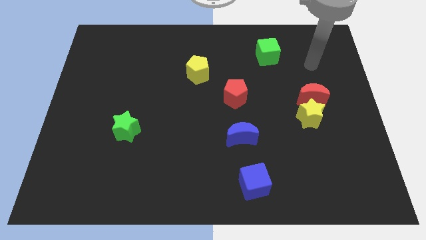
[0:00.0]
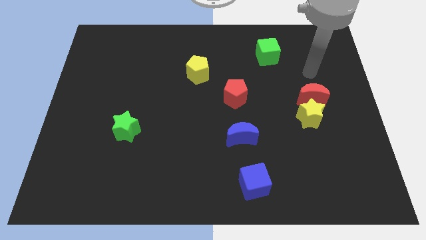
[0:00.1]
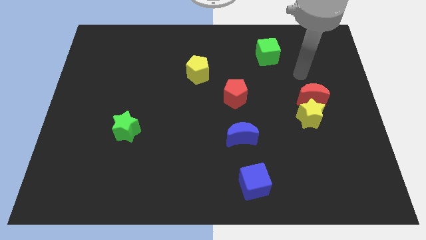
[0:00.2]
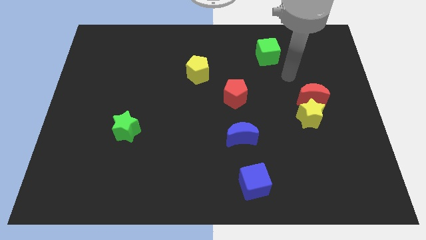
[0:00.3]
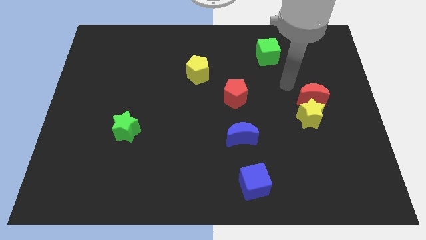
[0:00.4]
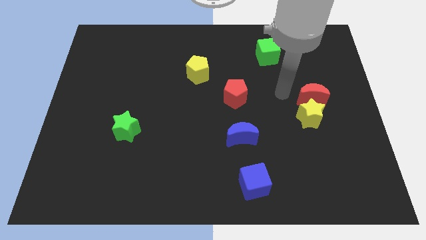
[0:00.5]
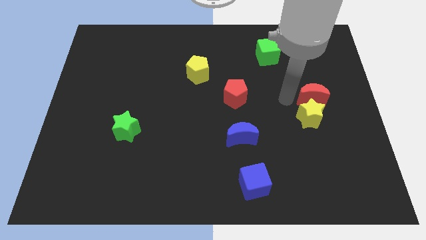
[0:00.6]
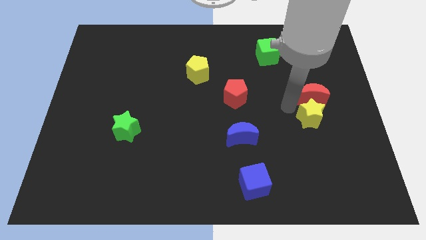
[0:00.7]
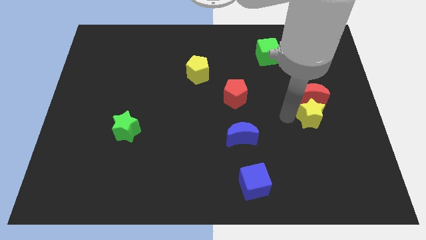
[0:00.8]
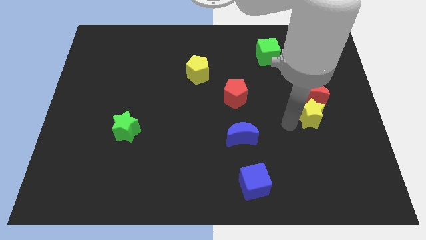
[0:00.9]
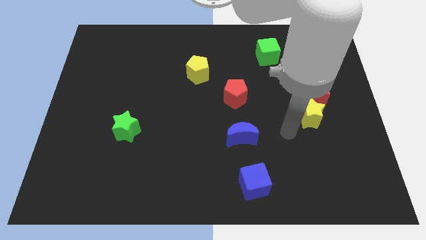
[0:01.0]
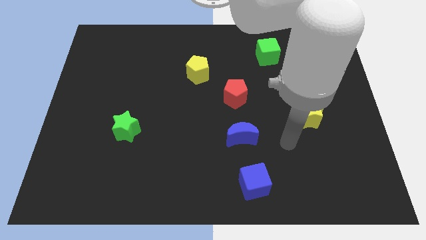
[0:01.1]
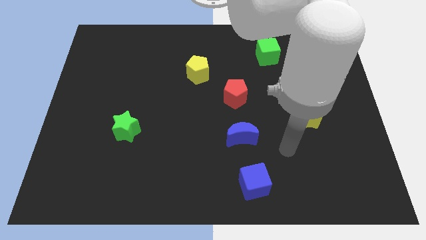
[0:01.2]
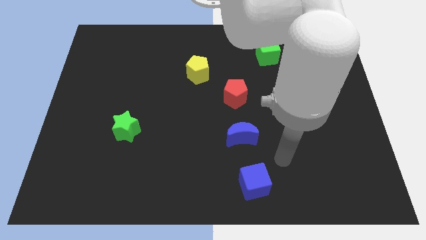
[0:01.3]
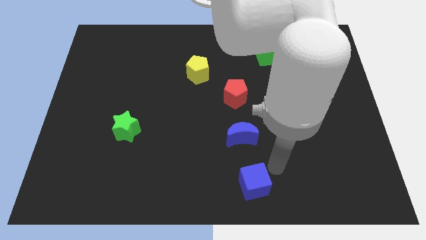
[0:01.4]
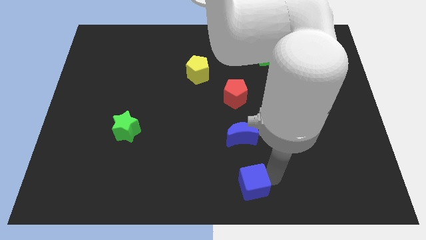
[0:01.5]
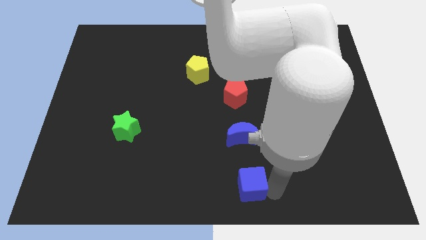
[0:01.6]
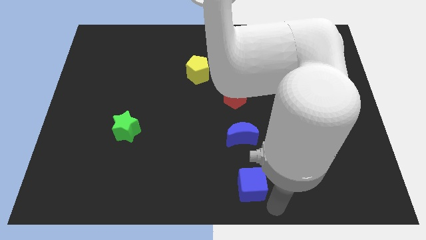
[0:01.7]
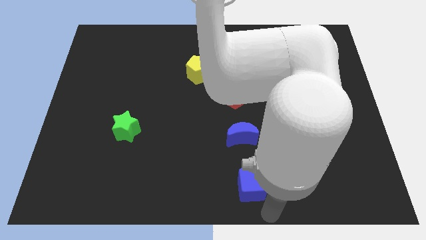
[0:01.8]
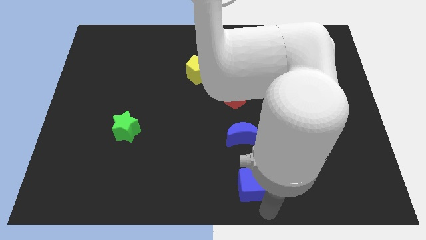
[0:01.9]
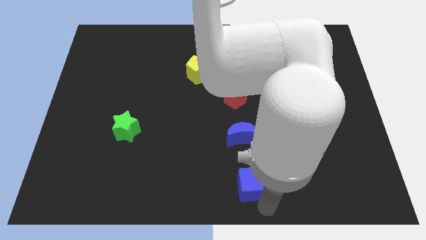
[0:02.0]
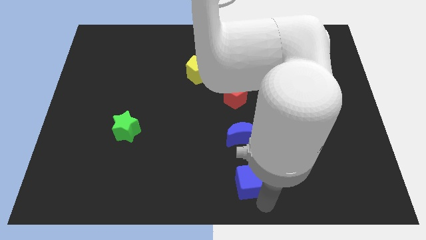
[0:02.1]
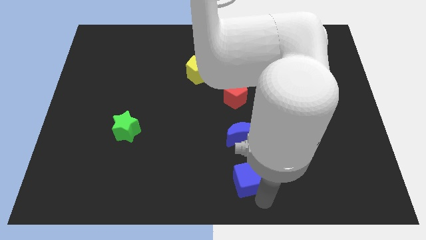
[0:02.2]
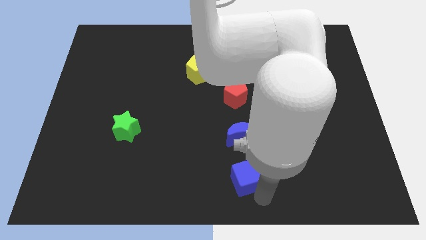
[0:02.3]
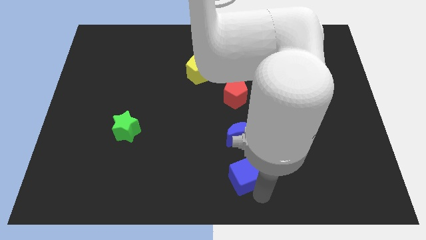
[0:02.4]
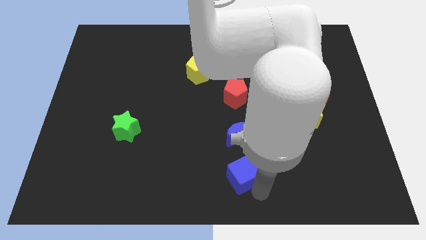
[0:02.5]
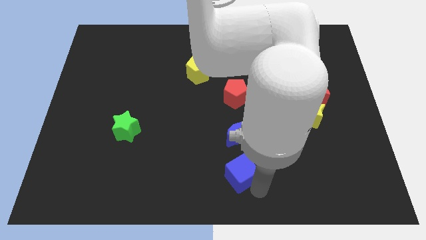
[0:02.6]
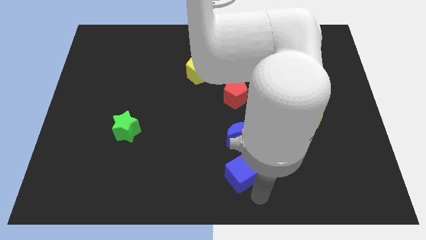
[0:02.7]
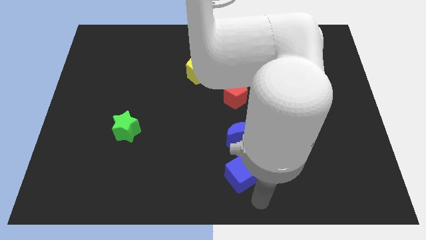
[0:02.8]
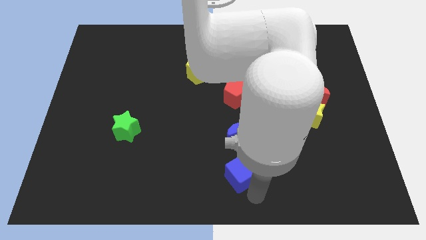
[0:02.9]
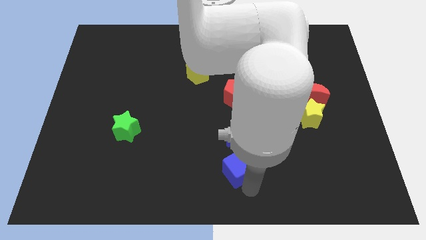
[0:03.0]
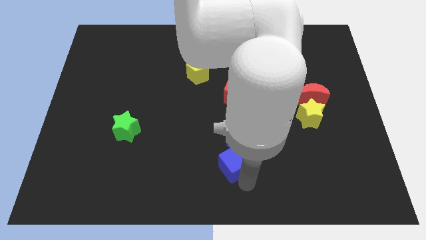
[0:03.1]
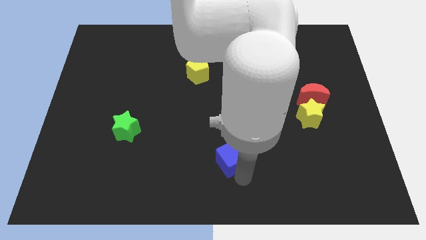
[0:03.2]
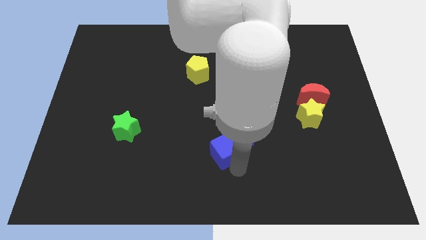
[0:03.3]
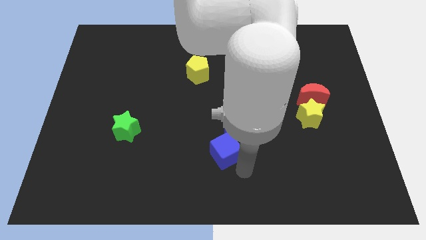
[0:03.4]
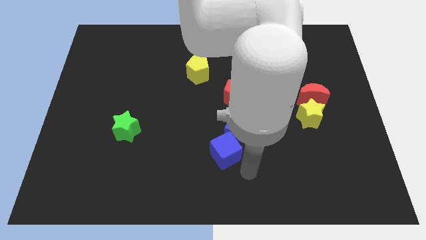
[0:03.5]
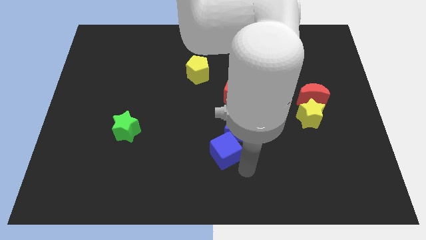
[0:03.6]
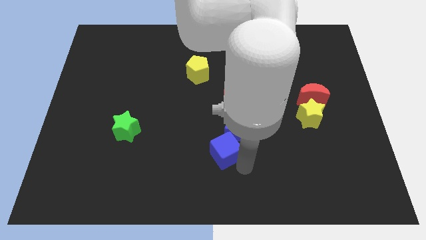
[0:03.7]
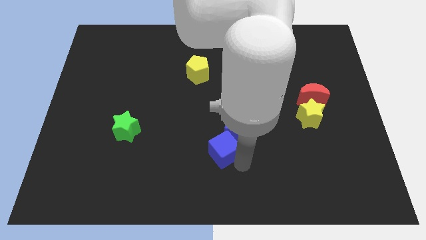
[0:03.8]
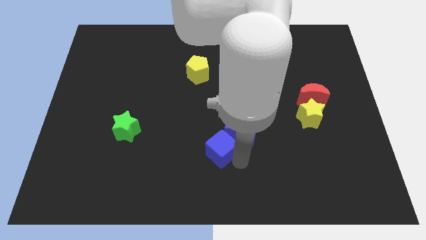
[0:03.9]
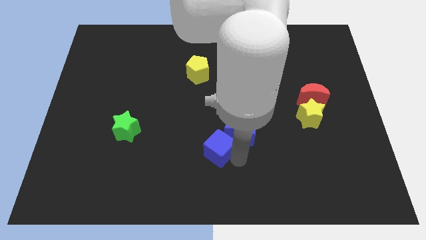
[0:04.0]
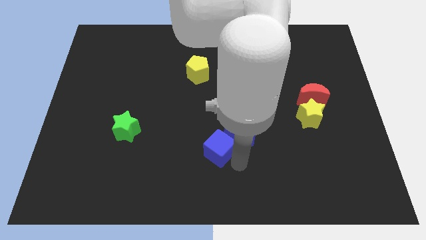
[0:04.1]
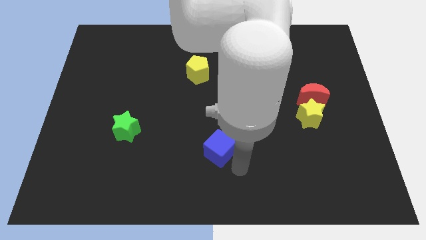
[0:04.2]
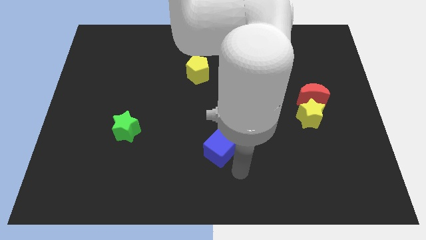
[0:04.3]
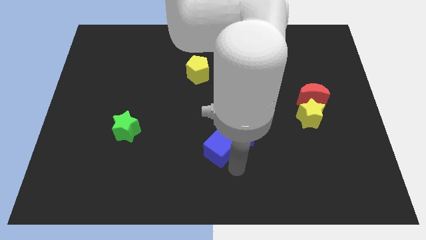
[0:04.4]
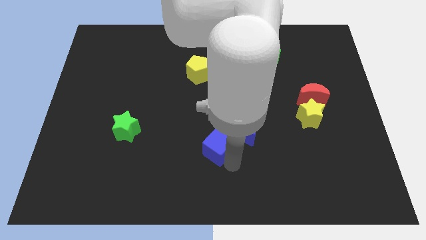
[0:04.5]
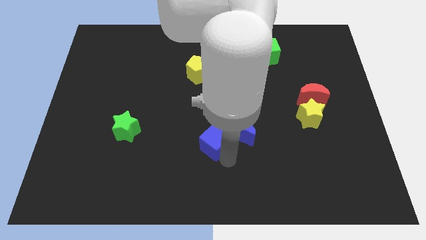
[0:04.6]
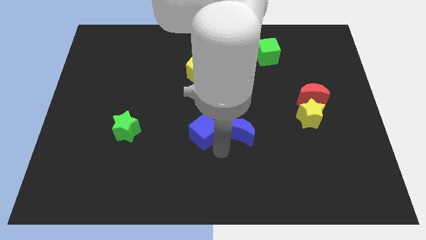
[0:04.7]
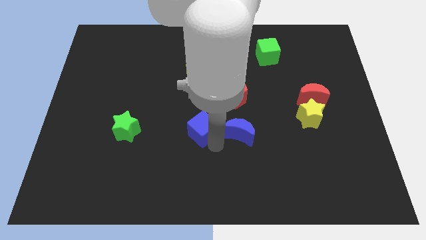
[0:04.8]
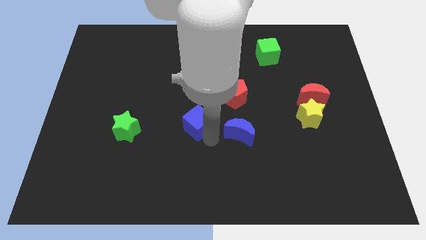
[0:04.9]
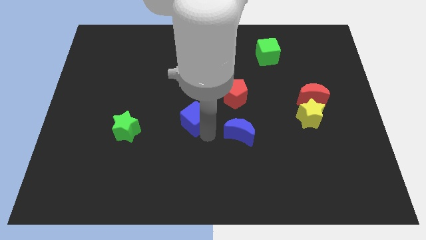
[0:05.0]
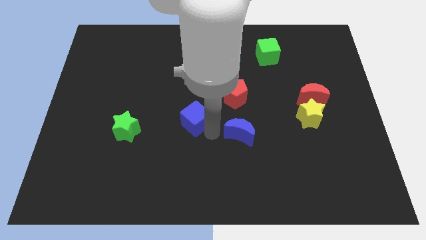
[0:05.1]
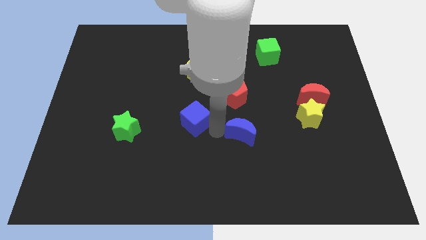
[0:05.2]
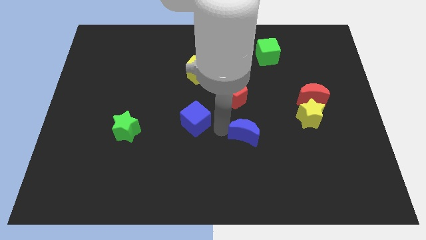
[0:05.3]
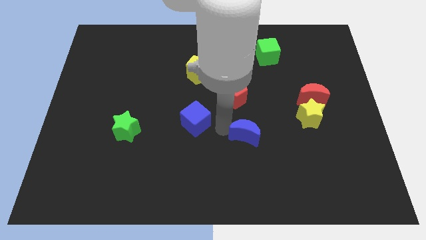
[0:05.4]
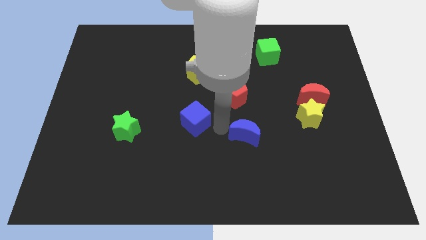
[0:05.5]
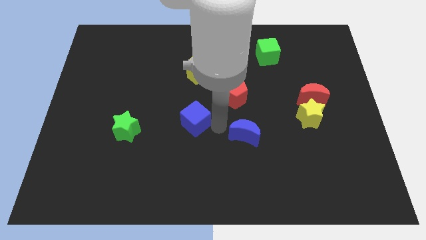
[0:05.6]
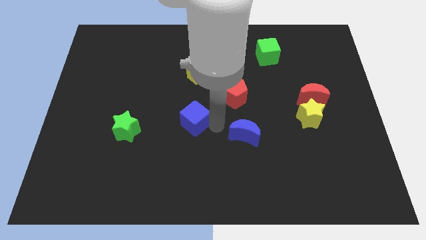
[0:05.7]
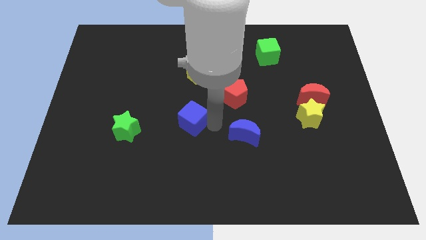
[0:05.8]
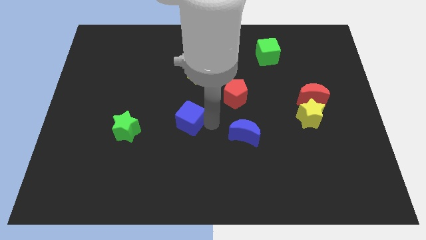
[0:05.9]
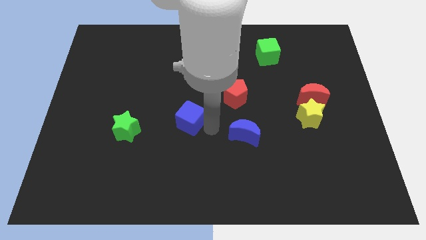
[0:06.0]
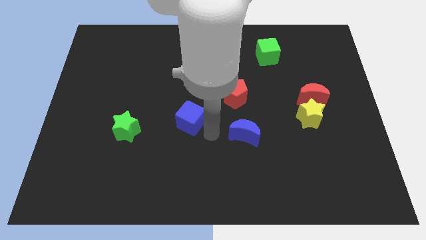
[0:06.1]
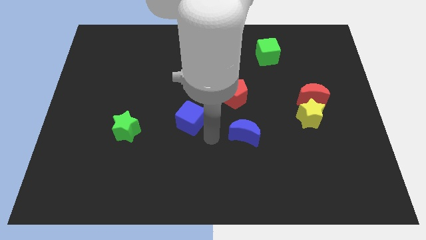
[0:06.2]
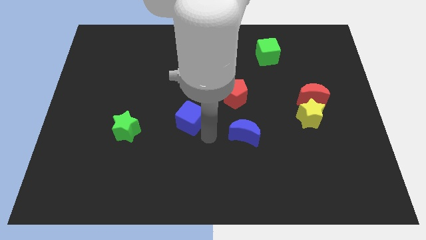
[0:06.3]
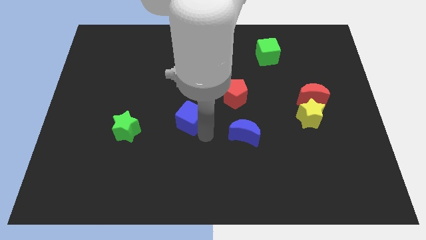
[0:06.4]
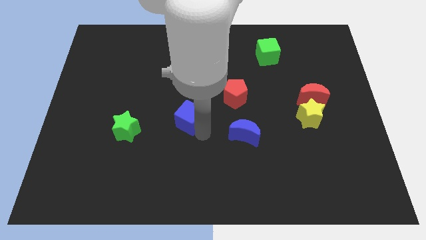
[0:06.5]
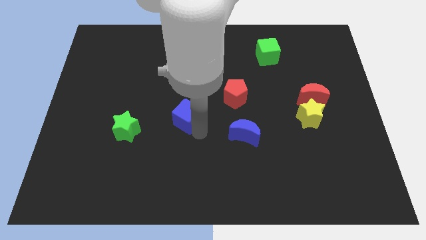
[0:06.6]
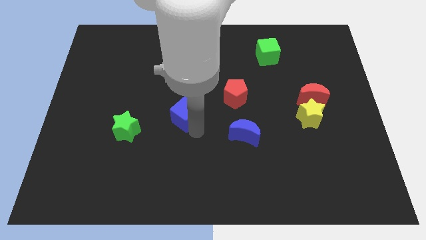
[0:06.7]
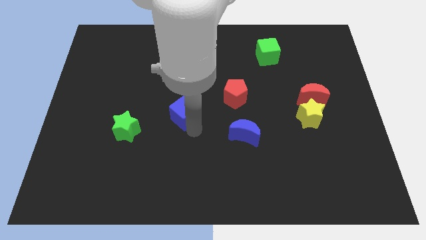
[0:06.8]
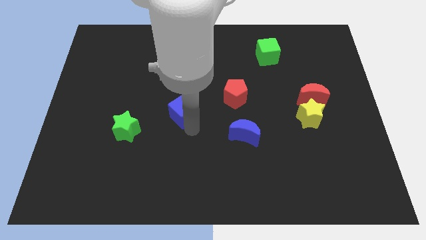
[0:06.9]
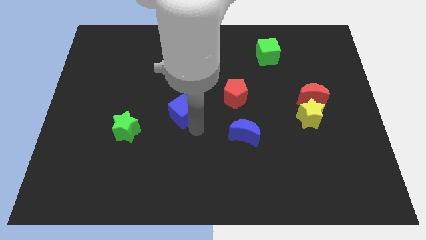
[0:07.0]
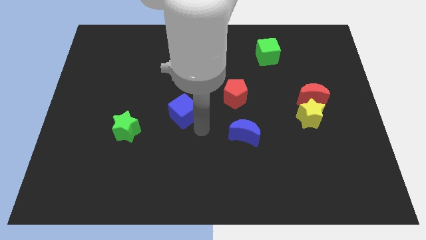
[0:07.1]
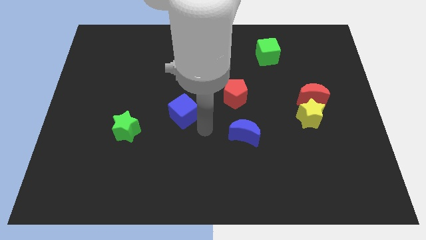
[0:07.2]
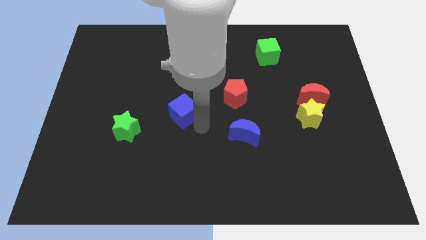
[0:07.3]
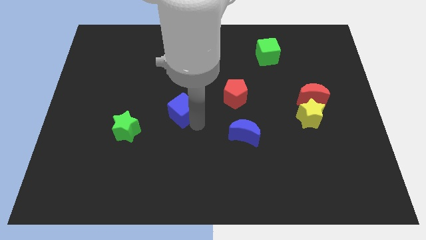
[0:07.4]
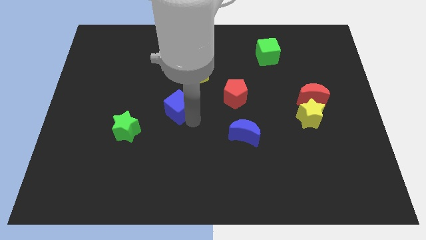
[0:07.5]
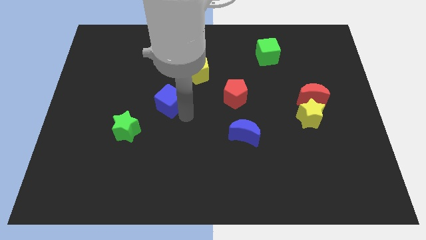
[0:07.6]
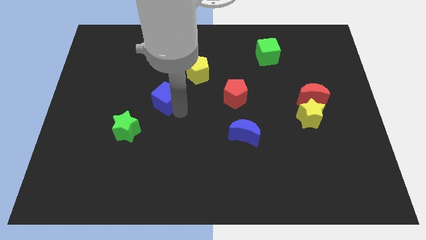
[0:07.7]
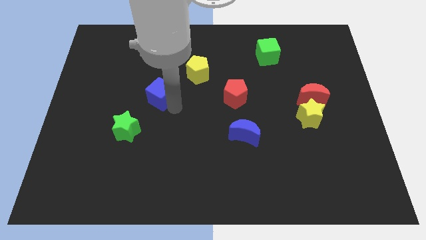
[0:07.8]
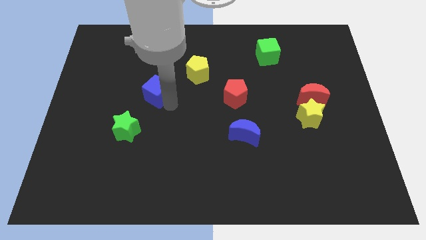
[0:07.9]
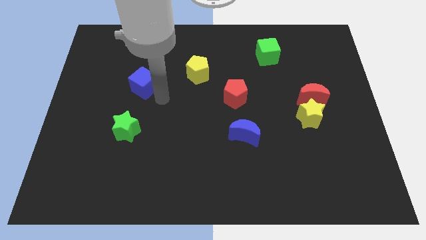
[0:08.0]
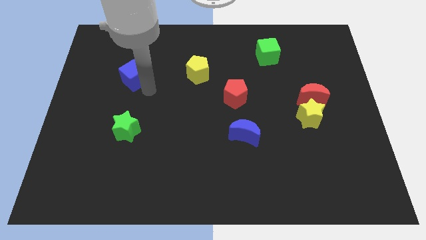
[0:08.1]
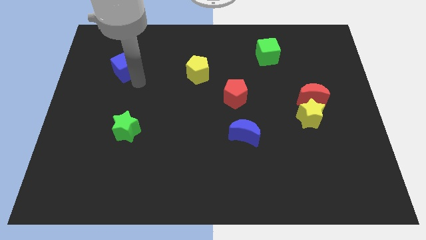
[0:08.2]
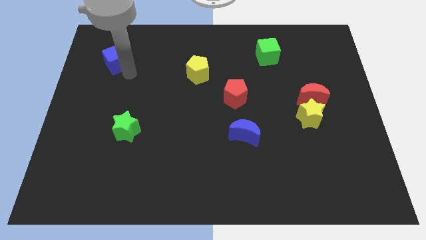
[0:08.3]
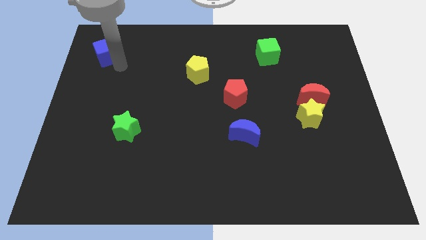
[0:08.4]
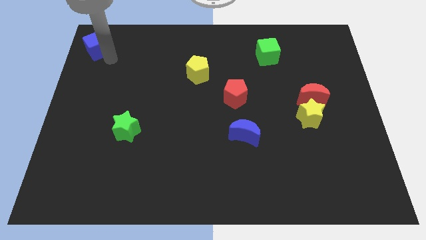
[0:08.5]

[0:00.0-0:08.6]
move the blue cube to the top left of the board
